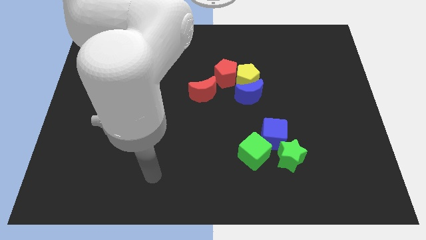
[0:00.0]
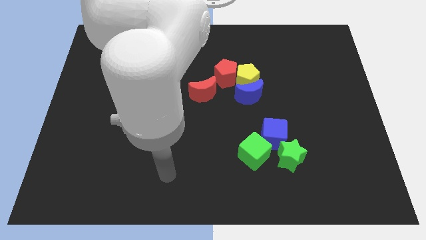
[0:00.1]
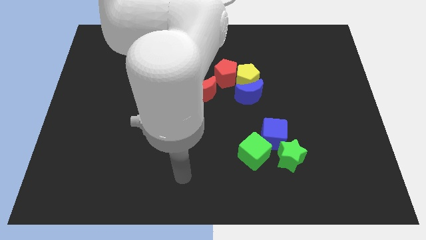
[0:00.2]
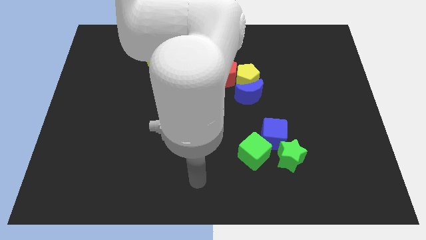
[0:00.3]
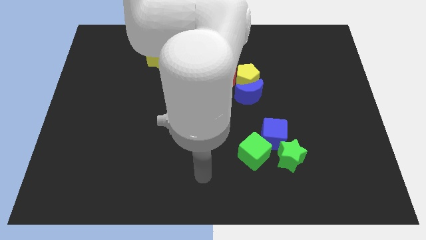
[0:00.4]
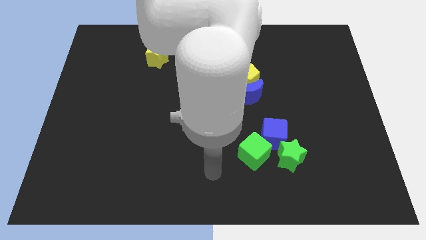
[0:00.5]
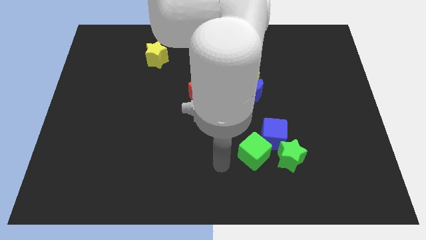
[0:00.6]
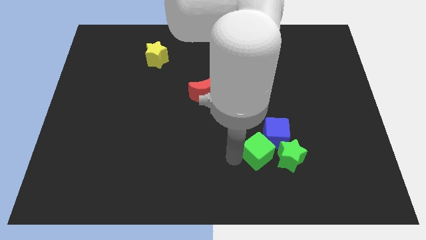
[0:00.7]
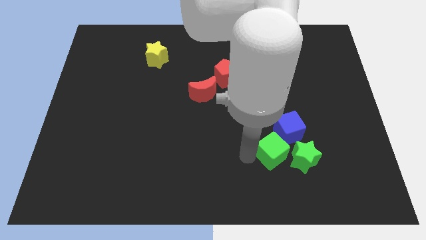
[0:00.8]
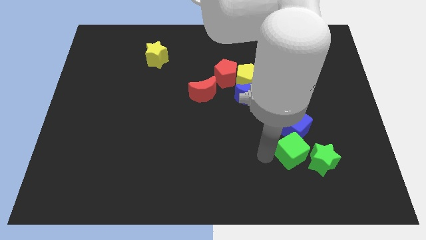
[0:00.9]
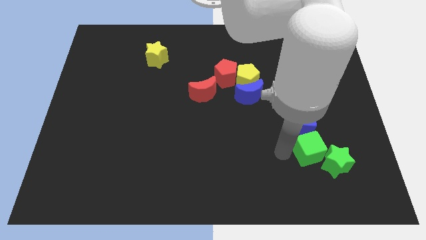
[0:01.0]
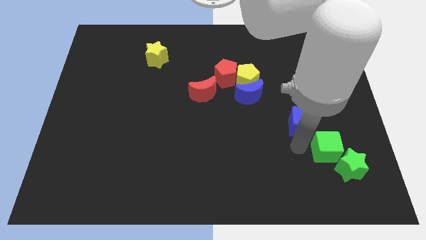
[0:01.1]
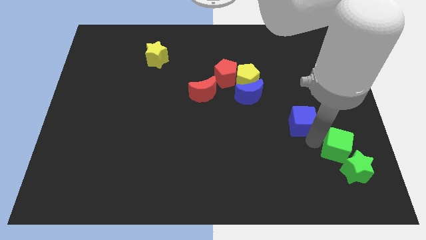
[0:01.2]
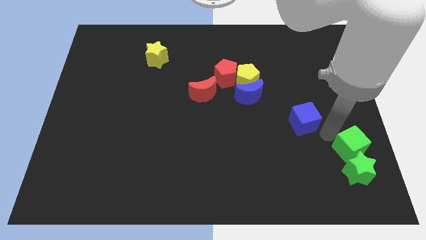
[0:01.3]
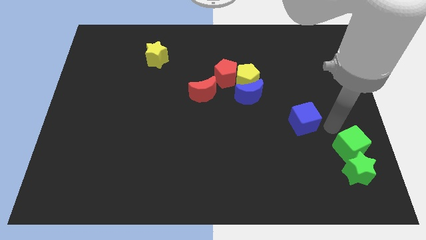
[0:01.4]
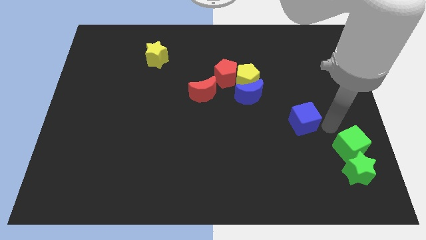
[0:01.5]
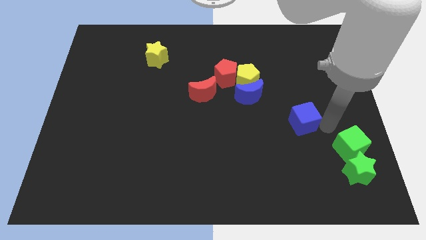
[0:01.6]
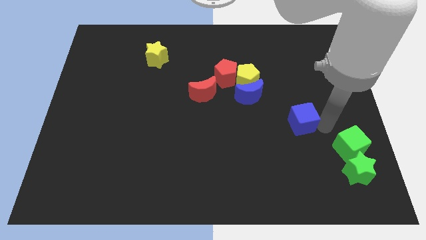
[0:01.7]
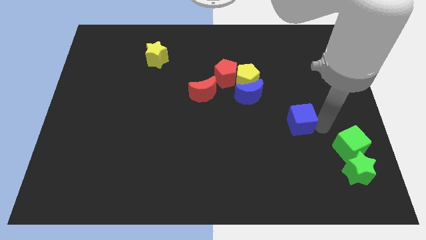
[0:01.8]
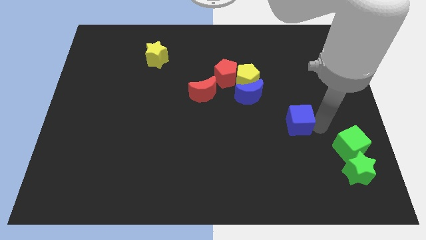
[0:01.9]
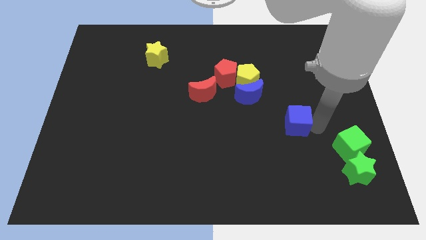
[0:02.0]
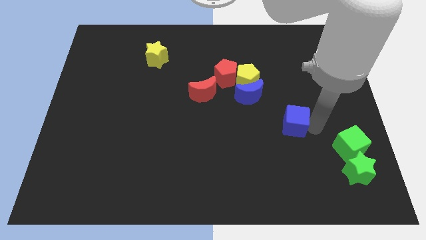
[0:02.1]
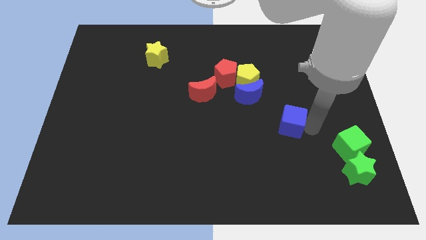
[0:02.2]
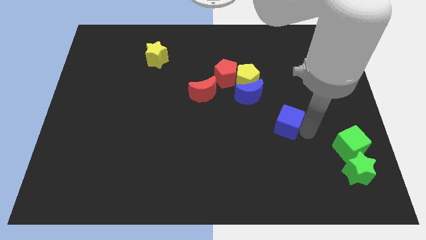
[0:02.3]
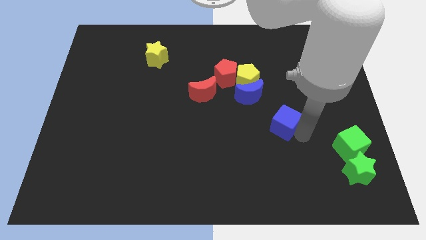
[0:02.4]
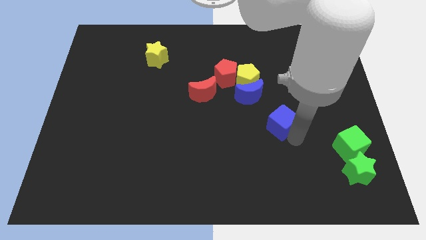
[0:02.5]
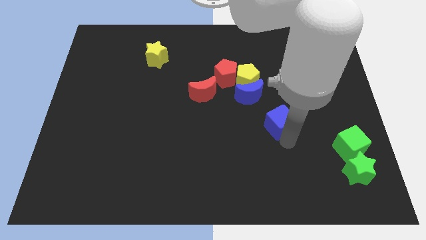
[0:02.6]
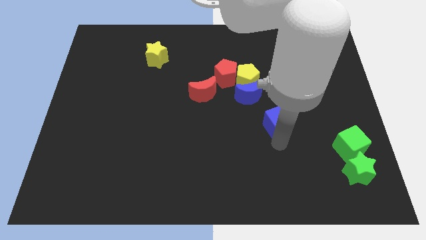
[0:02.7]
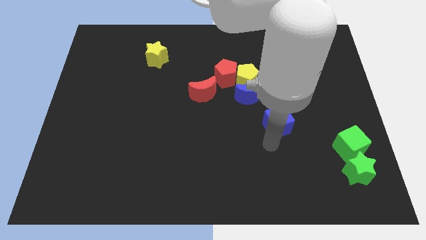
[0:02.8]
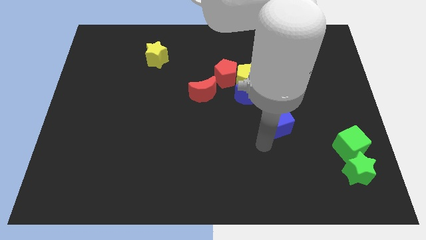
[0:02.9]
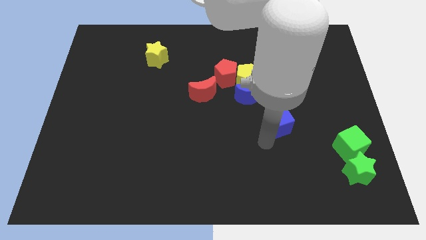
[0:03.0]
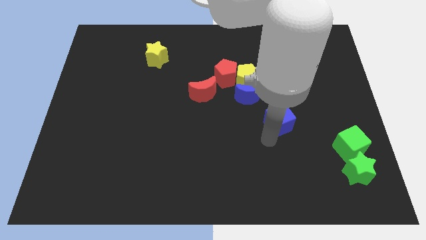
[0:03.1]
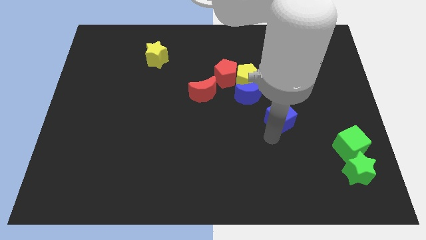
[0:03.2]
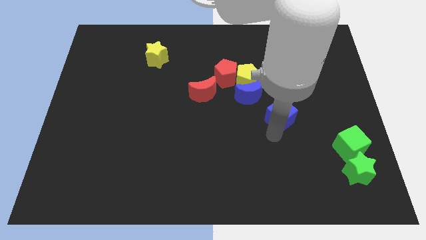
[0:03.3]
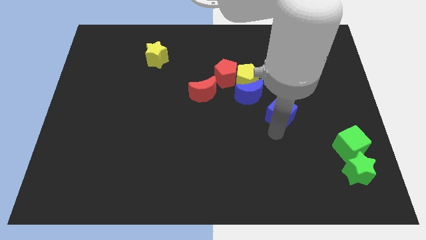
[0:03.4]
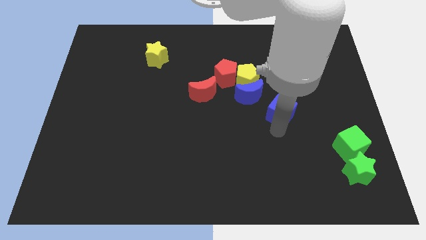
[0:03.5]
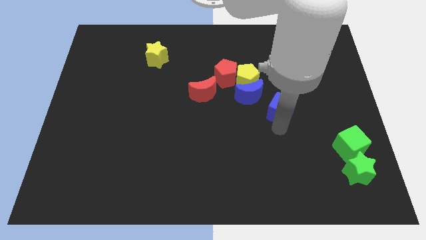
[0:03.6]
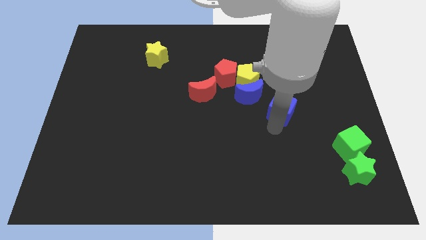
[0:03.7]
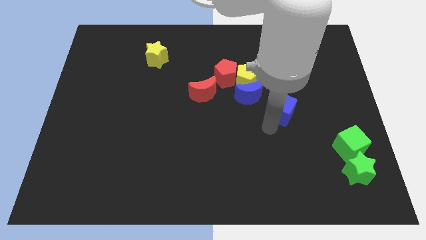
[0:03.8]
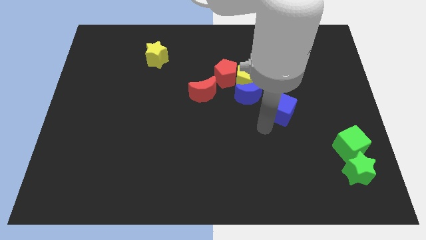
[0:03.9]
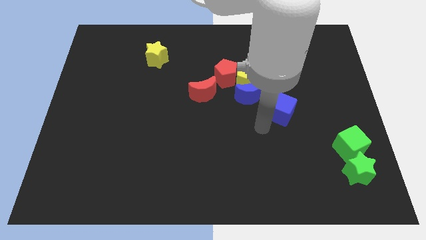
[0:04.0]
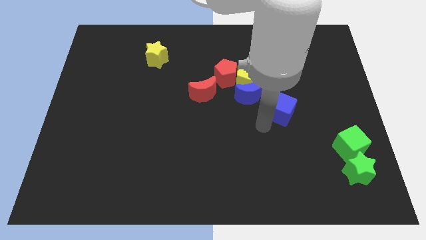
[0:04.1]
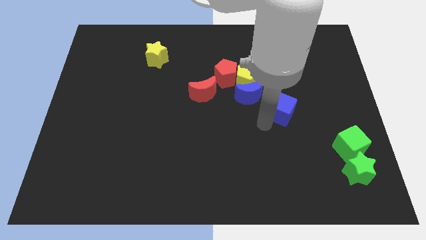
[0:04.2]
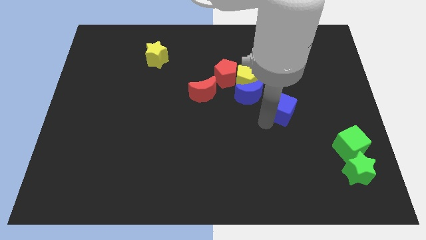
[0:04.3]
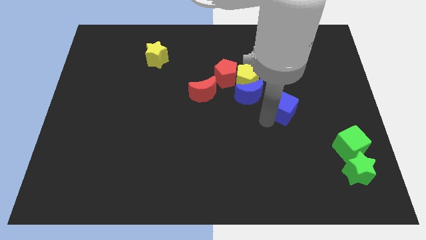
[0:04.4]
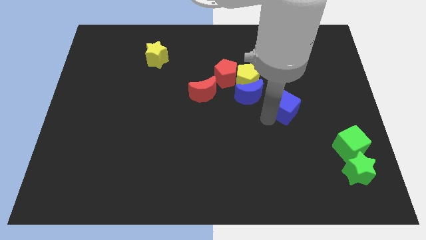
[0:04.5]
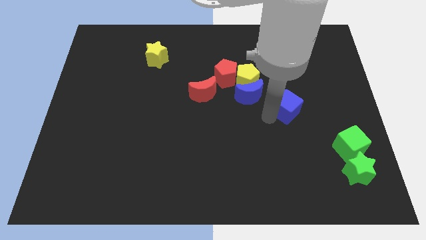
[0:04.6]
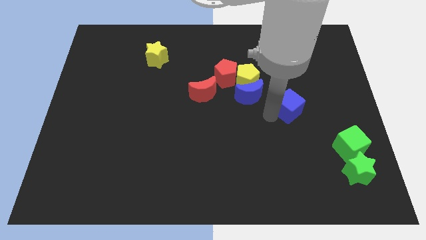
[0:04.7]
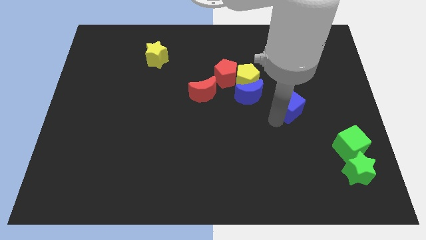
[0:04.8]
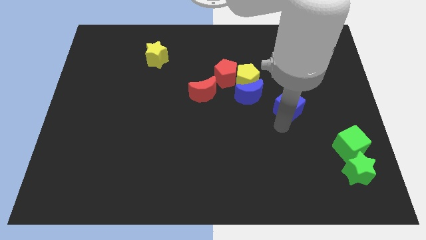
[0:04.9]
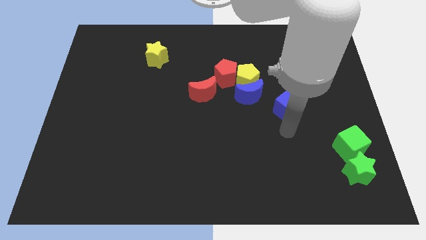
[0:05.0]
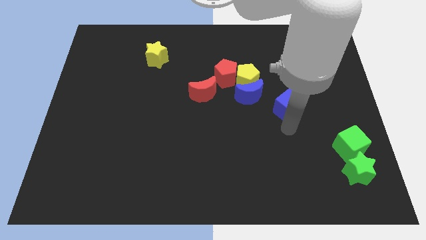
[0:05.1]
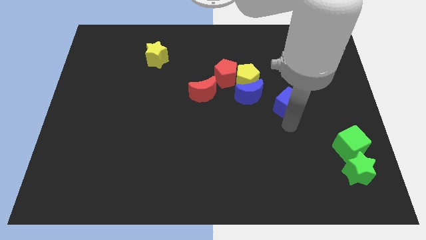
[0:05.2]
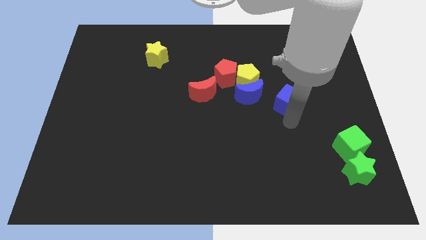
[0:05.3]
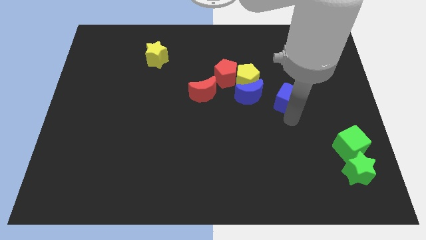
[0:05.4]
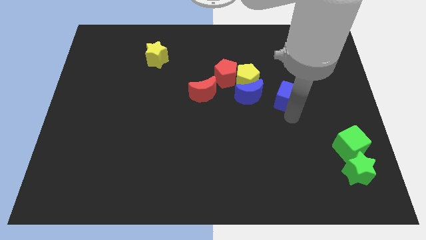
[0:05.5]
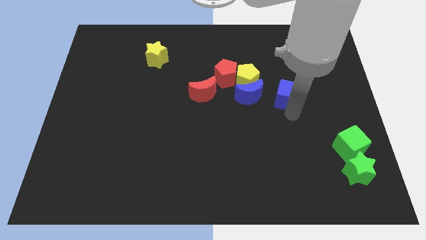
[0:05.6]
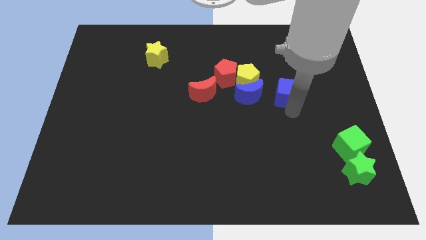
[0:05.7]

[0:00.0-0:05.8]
push the blue cube just right of the yellow pentagon

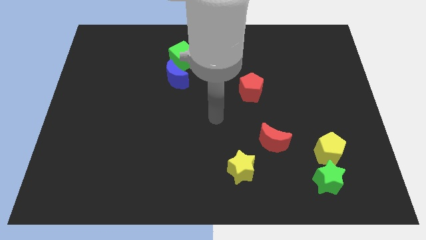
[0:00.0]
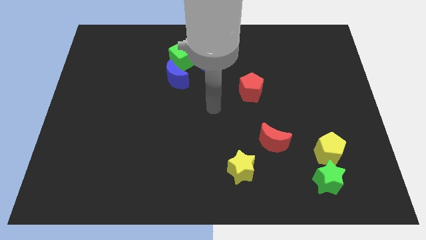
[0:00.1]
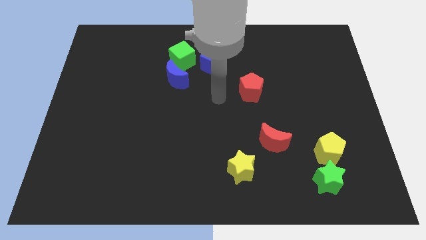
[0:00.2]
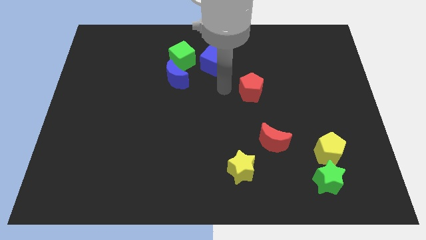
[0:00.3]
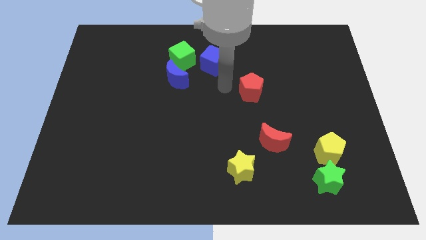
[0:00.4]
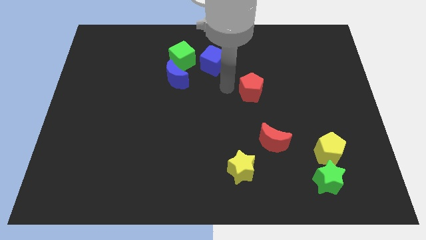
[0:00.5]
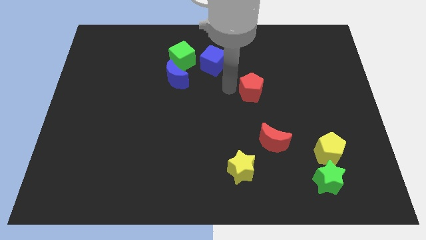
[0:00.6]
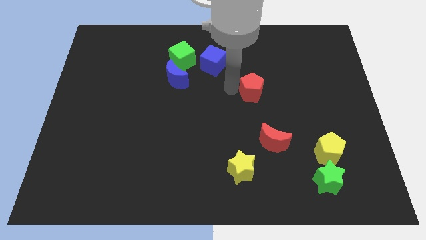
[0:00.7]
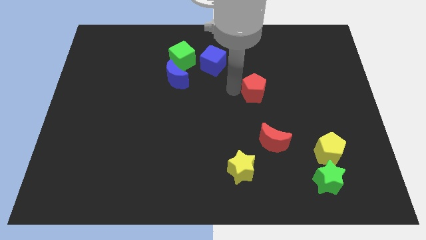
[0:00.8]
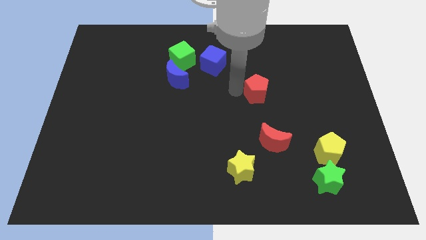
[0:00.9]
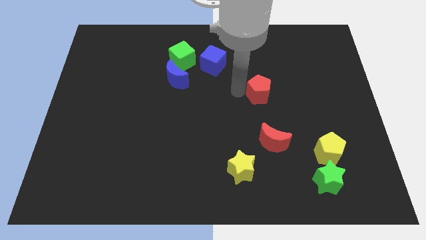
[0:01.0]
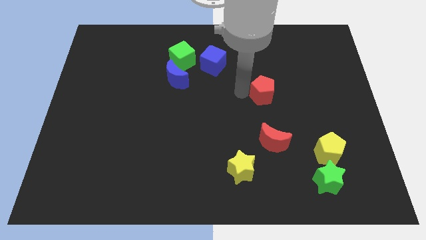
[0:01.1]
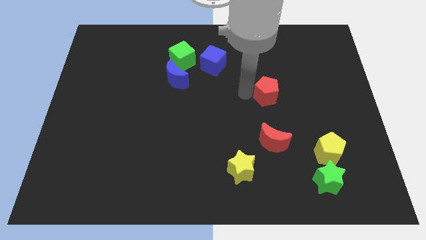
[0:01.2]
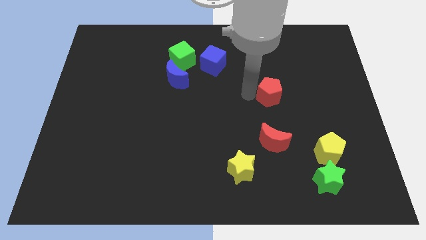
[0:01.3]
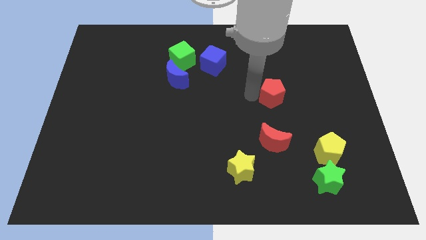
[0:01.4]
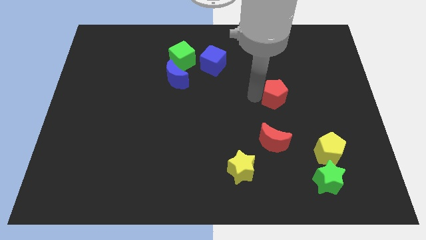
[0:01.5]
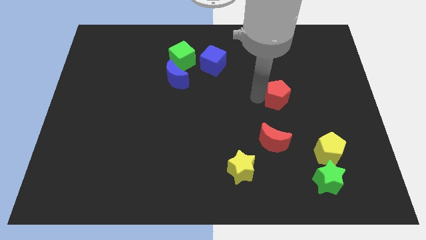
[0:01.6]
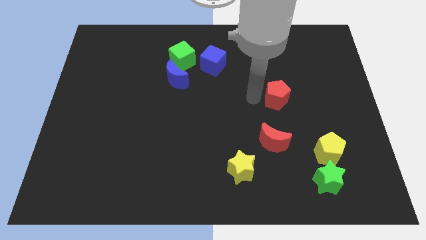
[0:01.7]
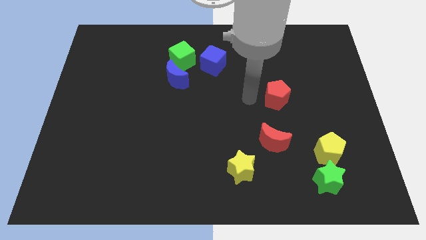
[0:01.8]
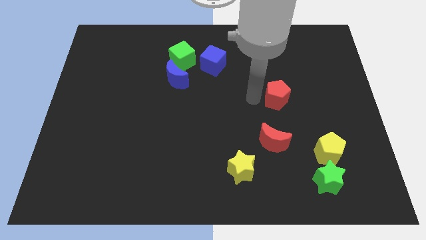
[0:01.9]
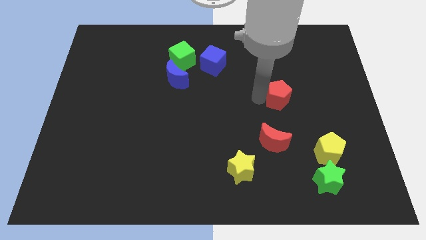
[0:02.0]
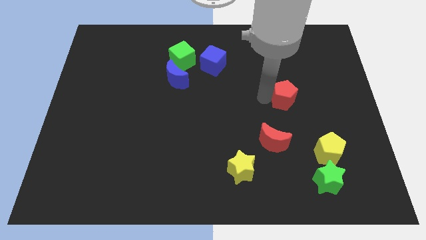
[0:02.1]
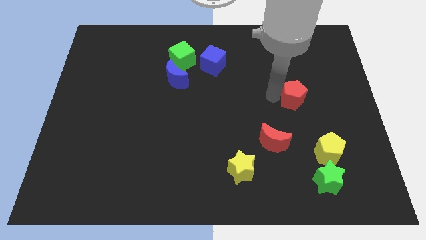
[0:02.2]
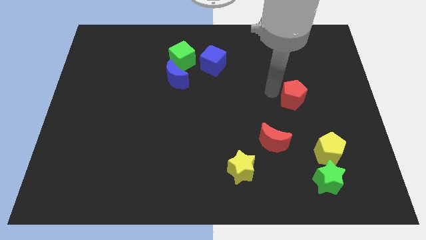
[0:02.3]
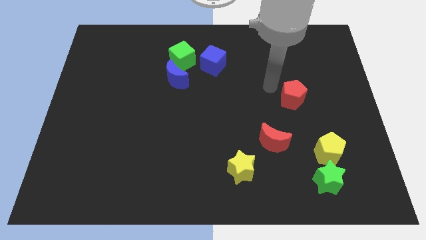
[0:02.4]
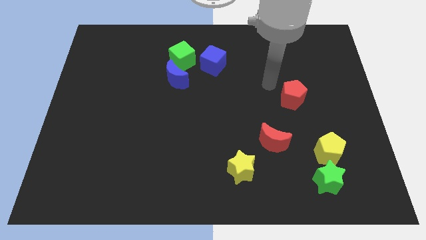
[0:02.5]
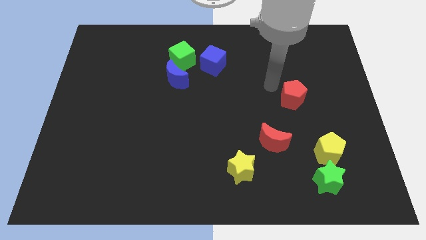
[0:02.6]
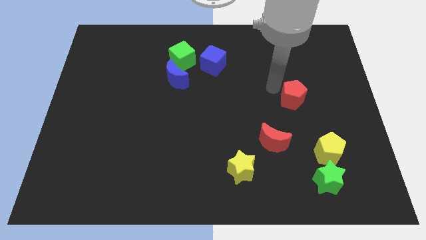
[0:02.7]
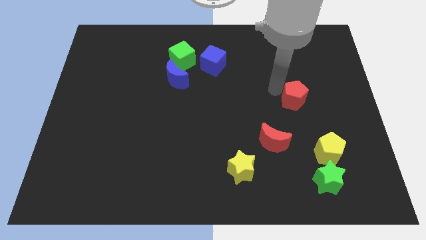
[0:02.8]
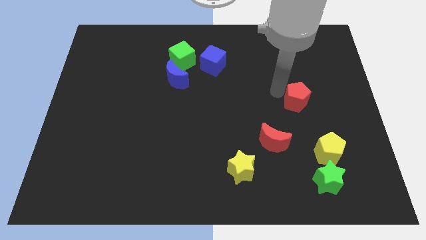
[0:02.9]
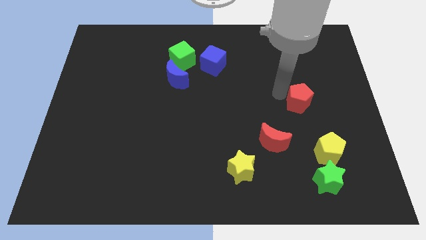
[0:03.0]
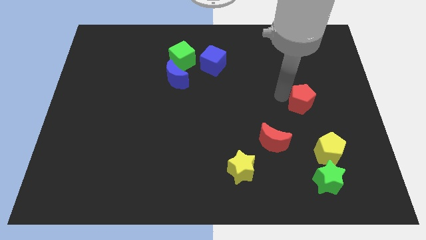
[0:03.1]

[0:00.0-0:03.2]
slide the red pentagon to the top of the yellow pentagon
